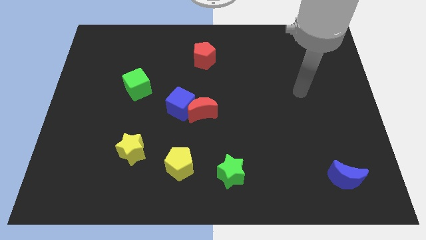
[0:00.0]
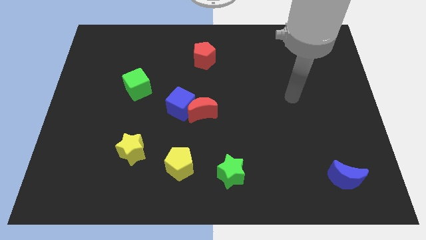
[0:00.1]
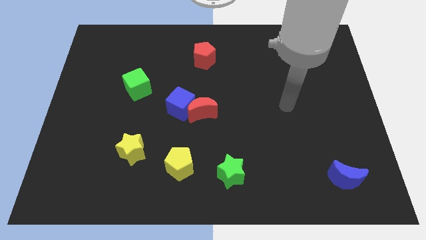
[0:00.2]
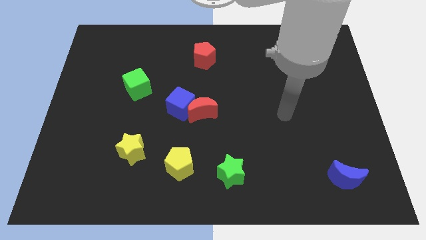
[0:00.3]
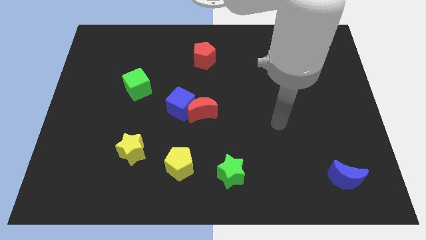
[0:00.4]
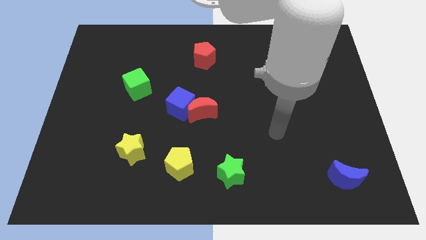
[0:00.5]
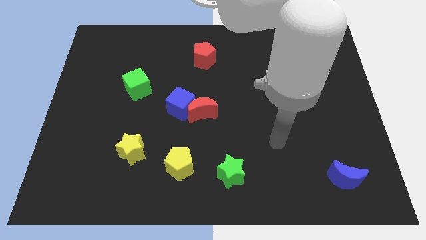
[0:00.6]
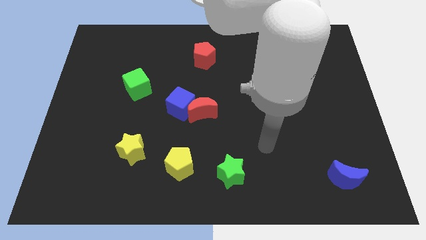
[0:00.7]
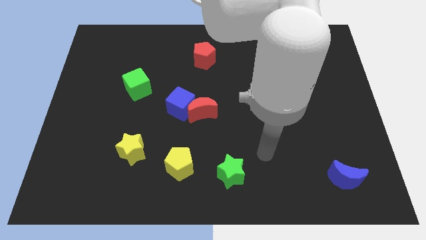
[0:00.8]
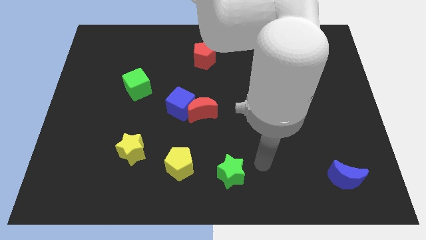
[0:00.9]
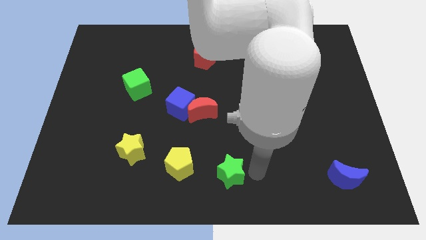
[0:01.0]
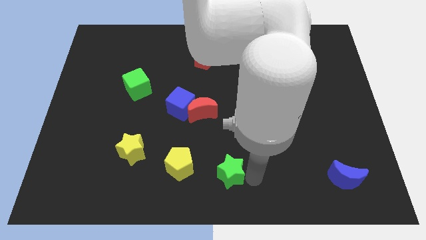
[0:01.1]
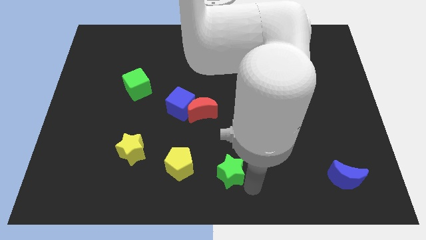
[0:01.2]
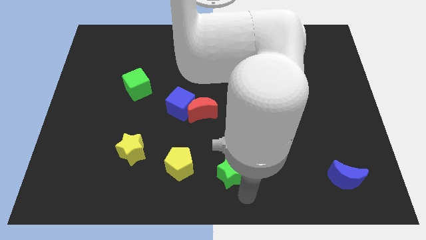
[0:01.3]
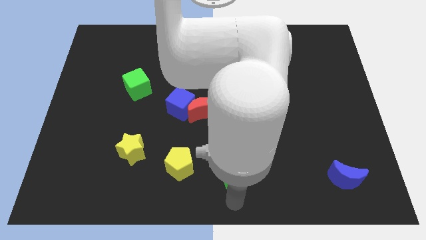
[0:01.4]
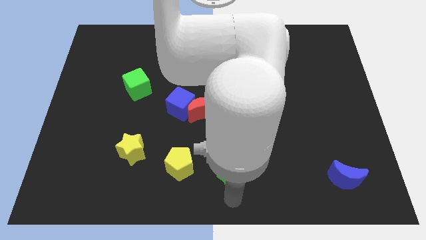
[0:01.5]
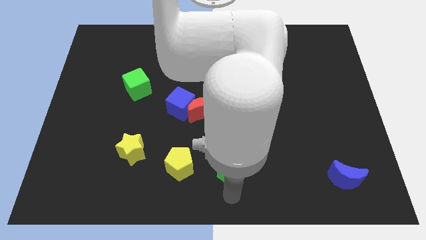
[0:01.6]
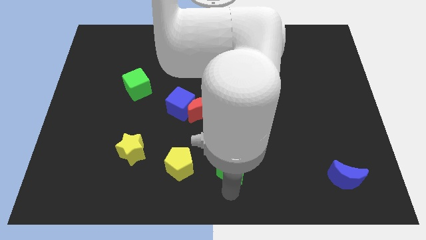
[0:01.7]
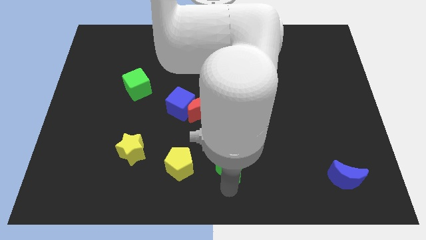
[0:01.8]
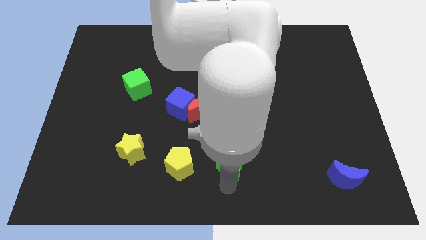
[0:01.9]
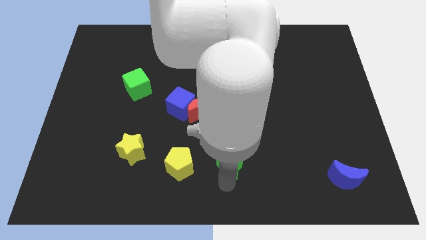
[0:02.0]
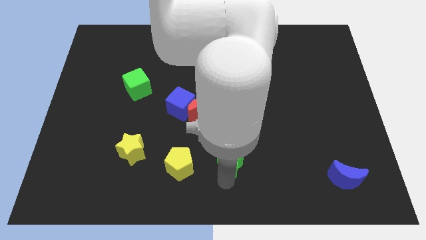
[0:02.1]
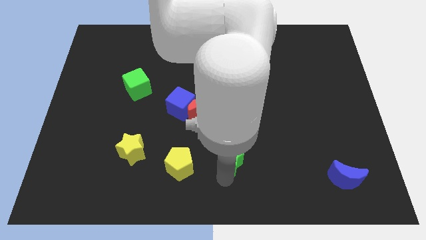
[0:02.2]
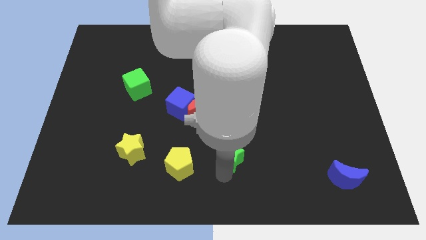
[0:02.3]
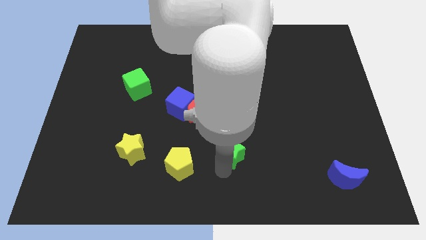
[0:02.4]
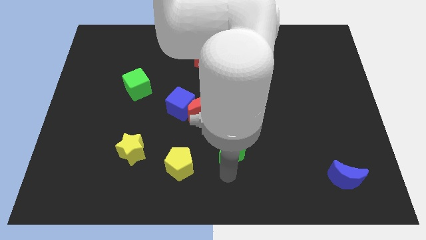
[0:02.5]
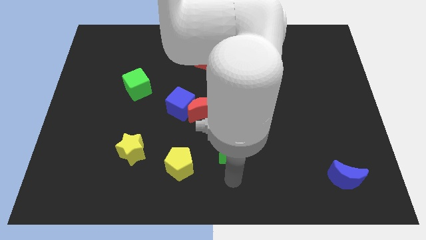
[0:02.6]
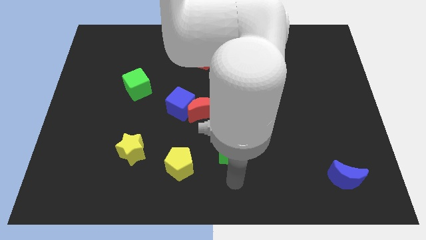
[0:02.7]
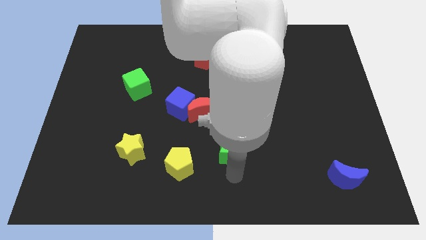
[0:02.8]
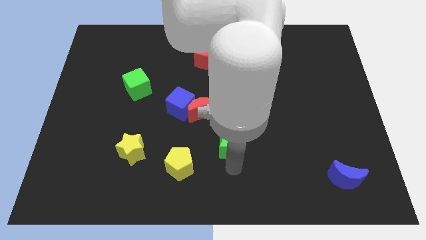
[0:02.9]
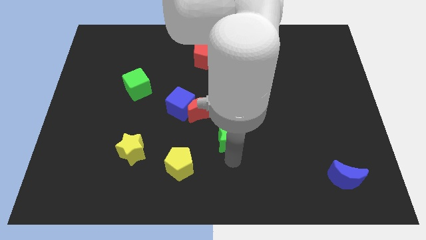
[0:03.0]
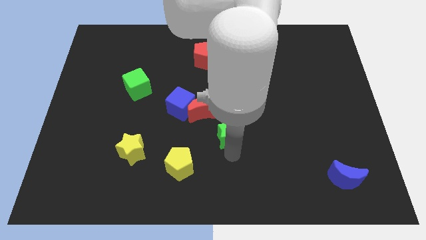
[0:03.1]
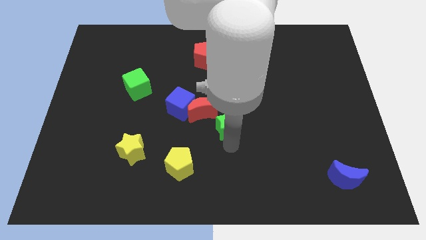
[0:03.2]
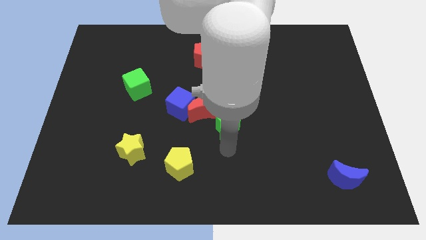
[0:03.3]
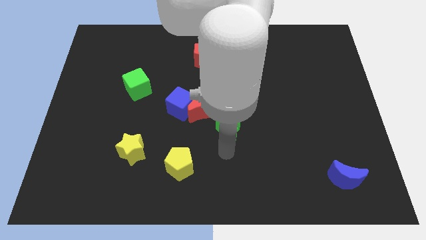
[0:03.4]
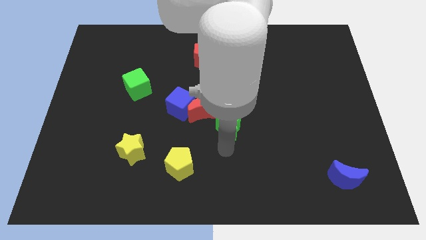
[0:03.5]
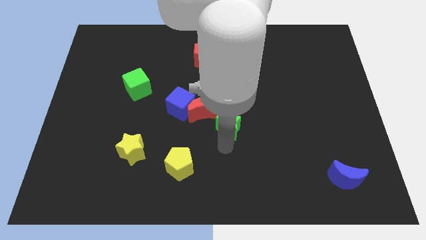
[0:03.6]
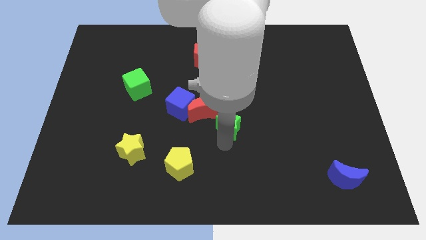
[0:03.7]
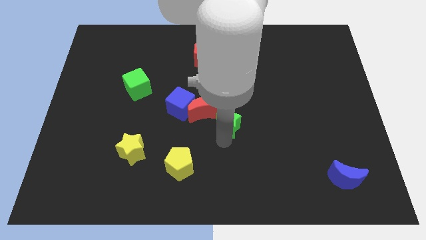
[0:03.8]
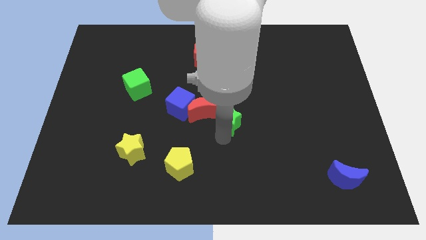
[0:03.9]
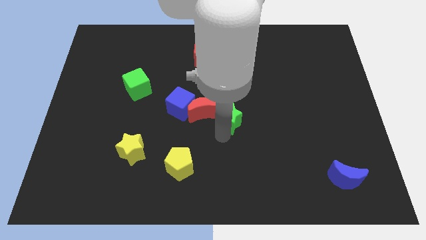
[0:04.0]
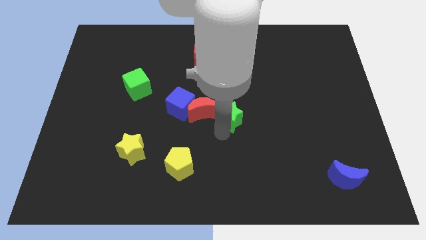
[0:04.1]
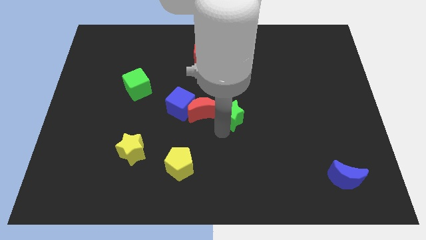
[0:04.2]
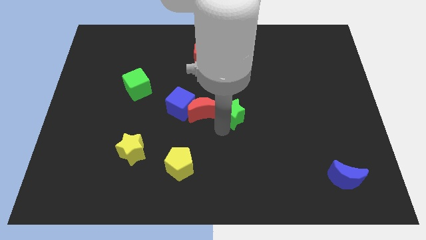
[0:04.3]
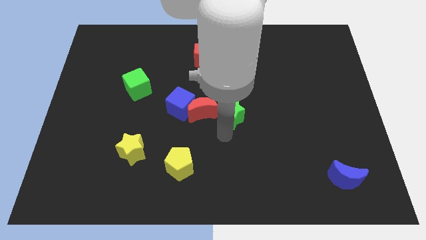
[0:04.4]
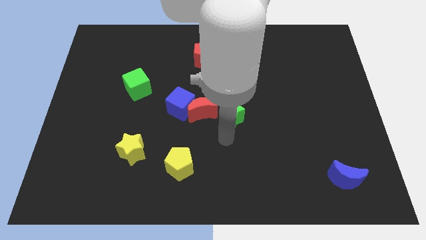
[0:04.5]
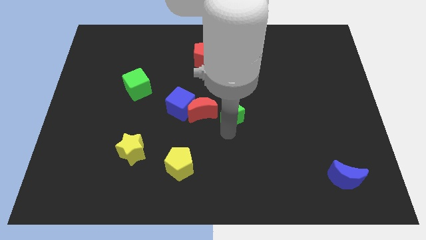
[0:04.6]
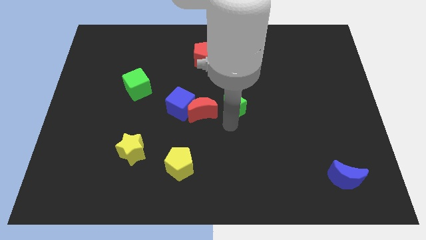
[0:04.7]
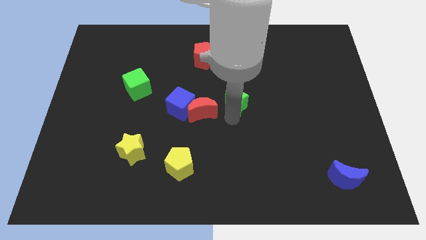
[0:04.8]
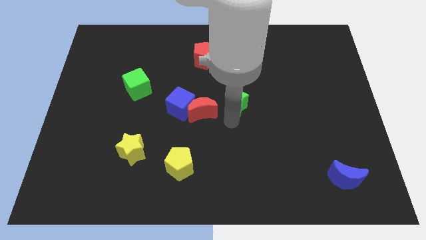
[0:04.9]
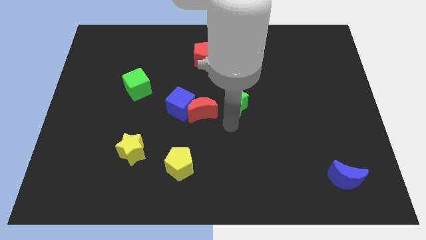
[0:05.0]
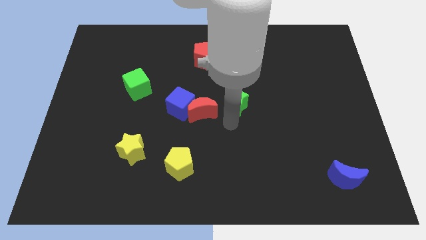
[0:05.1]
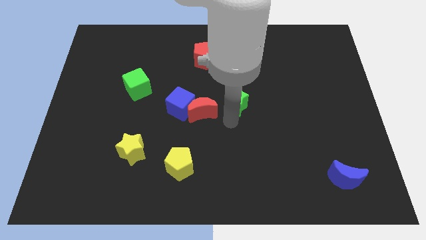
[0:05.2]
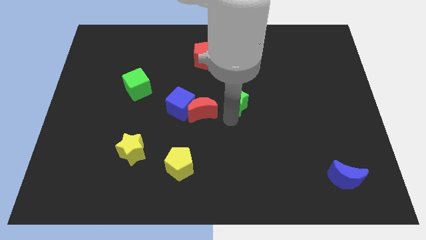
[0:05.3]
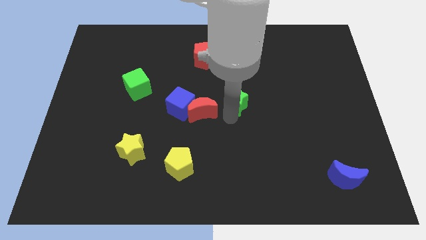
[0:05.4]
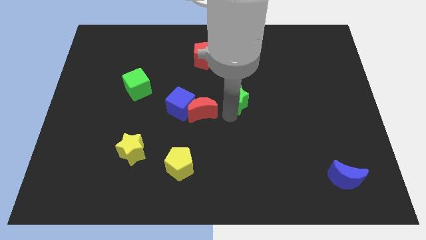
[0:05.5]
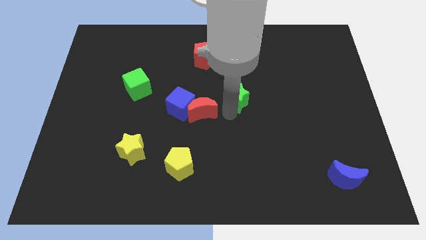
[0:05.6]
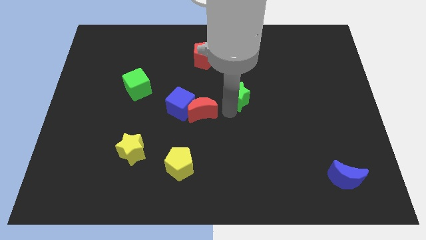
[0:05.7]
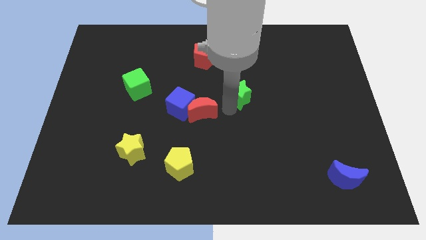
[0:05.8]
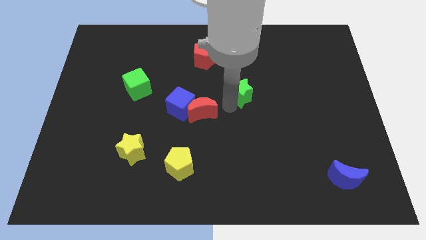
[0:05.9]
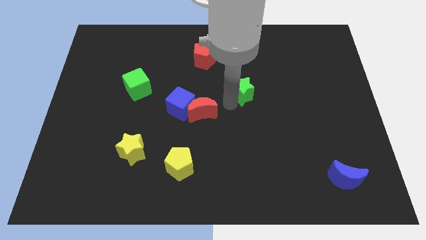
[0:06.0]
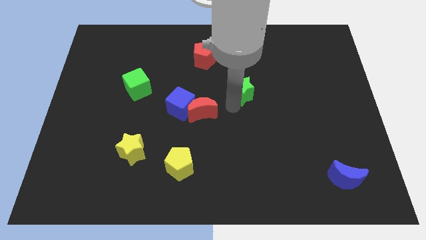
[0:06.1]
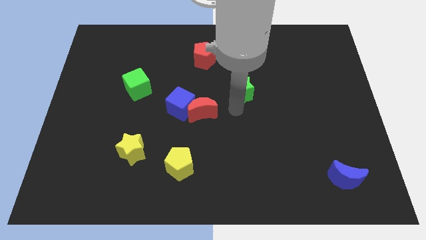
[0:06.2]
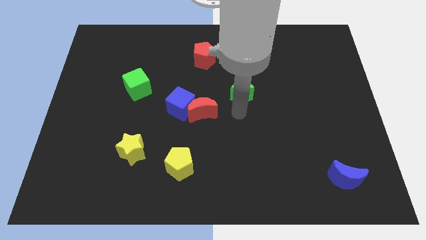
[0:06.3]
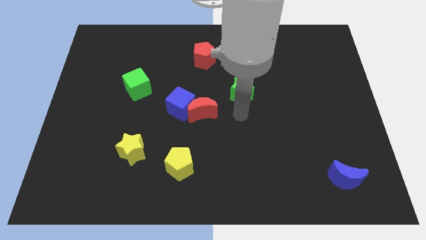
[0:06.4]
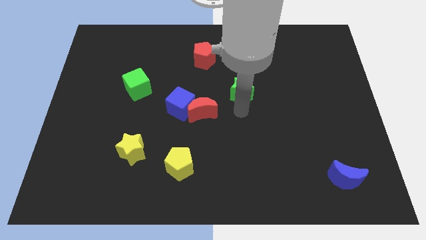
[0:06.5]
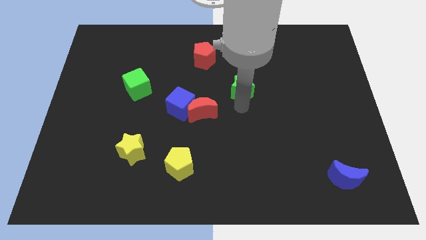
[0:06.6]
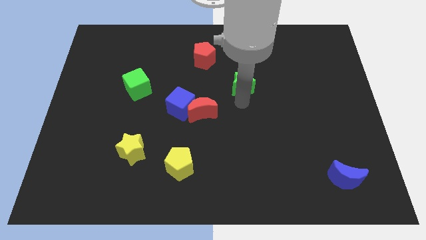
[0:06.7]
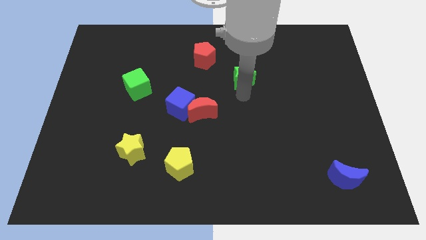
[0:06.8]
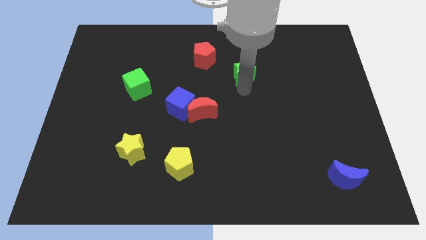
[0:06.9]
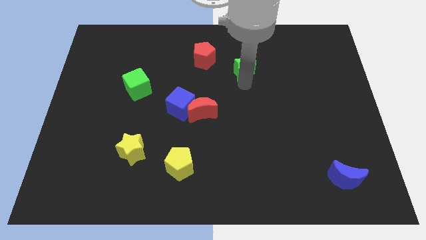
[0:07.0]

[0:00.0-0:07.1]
push the green star to the right side of the red pentagon
